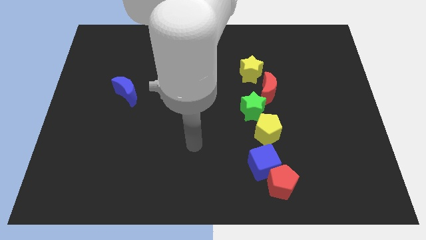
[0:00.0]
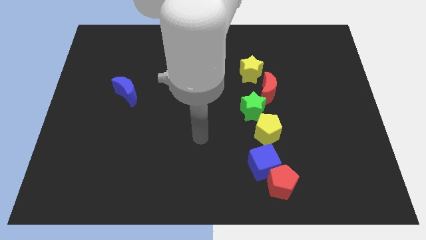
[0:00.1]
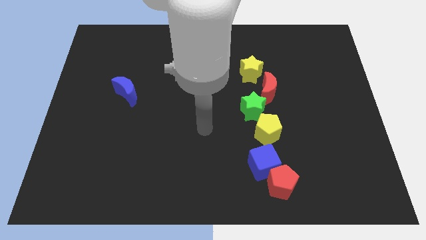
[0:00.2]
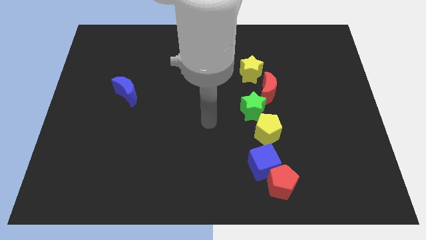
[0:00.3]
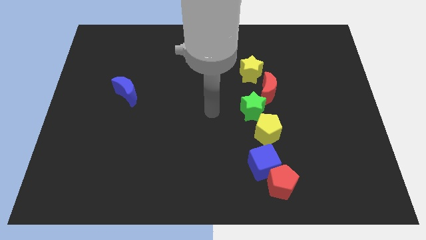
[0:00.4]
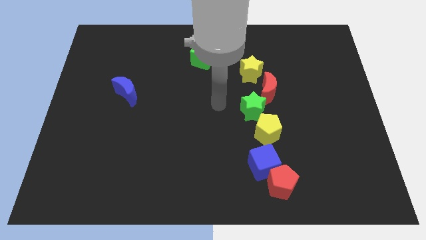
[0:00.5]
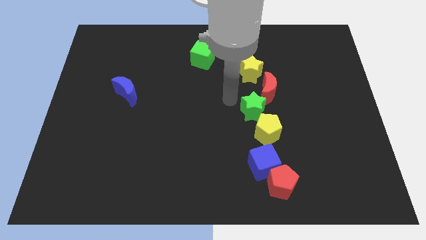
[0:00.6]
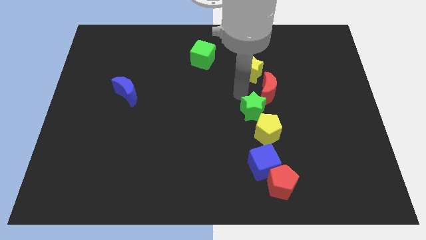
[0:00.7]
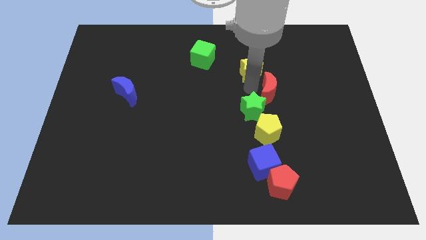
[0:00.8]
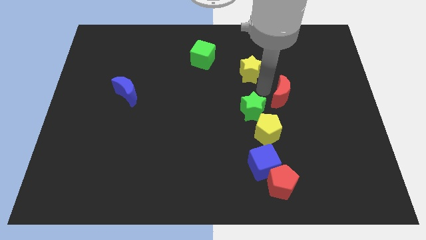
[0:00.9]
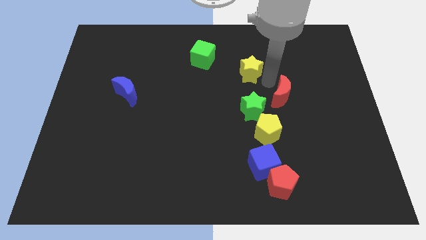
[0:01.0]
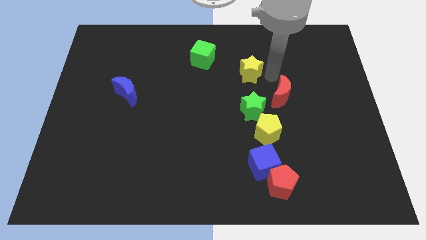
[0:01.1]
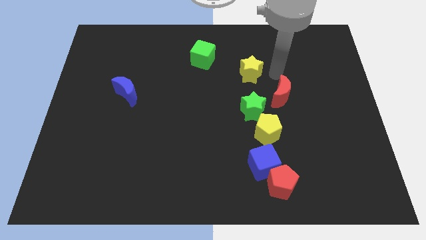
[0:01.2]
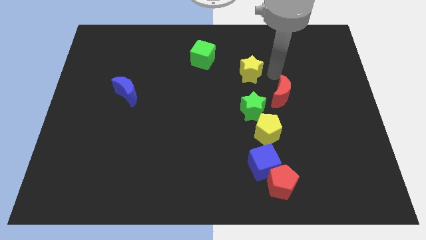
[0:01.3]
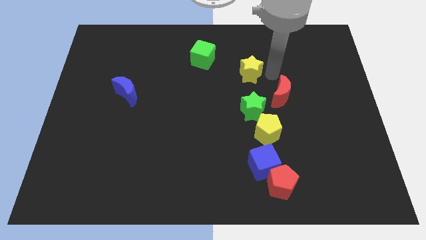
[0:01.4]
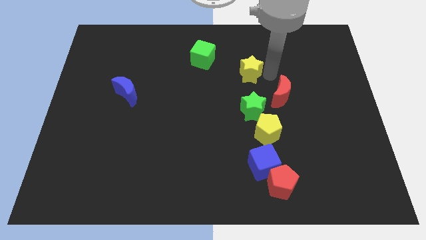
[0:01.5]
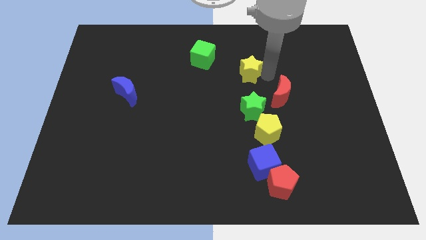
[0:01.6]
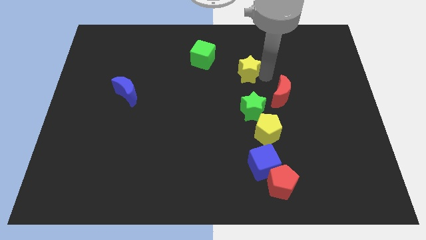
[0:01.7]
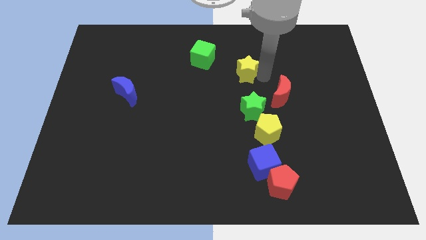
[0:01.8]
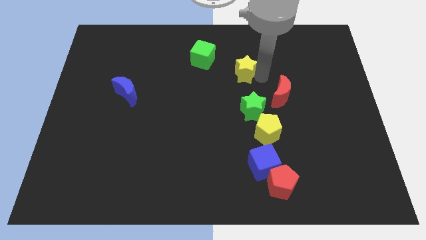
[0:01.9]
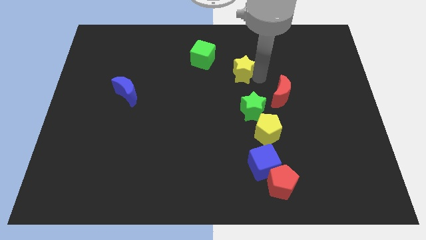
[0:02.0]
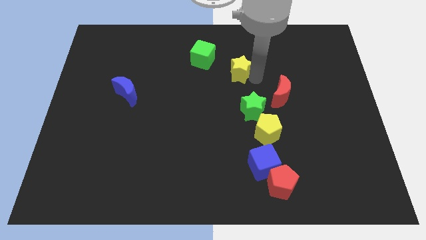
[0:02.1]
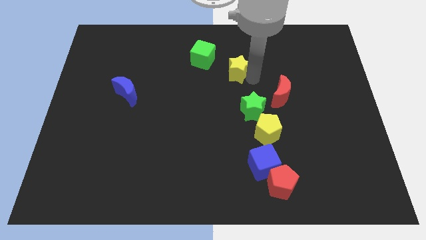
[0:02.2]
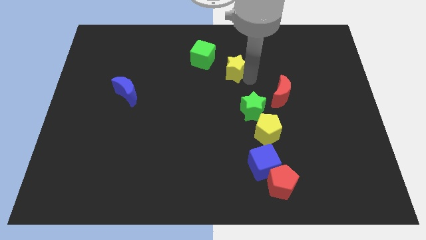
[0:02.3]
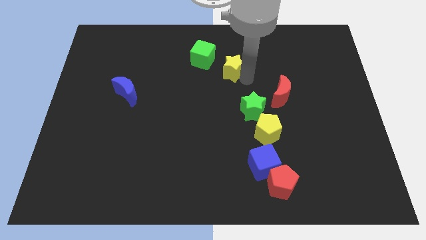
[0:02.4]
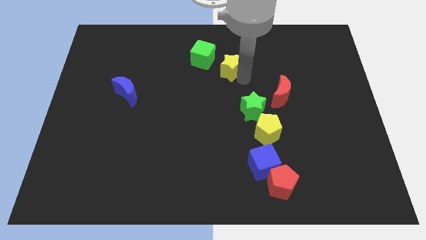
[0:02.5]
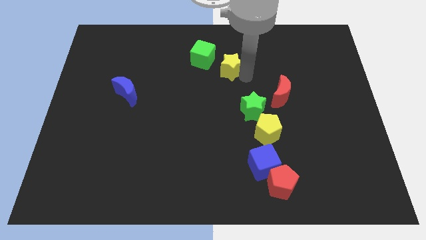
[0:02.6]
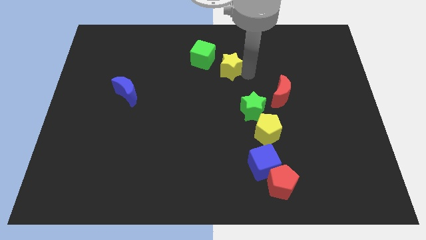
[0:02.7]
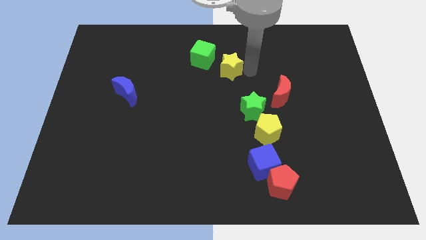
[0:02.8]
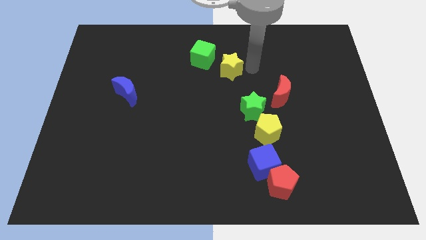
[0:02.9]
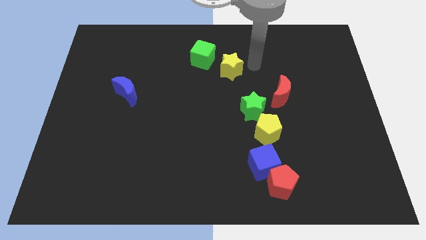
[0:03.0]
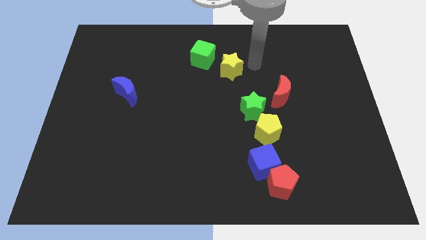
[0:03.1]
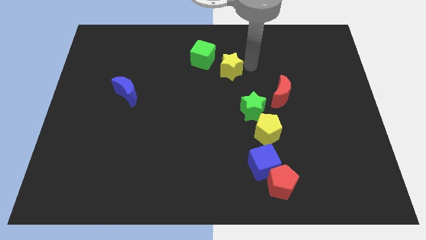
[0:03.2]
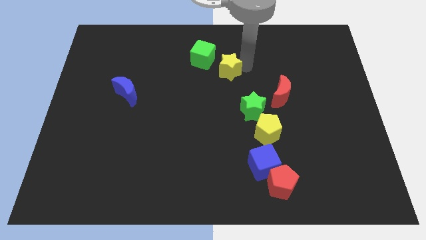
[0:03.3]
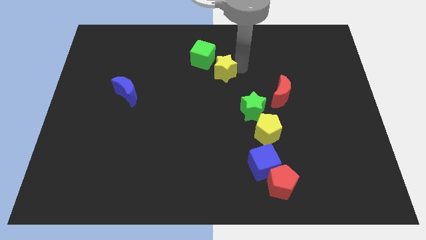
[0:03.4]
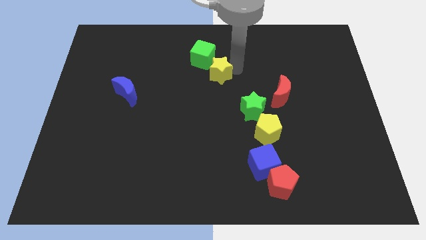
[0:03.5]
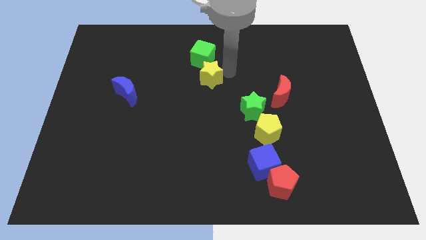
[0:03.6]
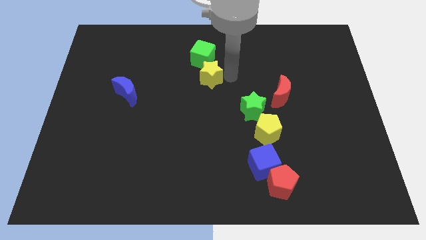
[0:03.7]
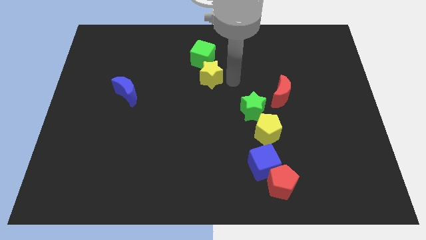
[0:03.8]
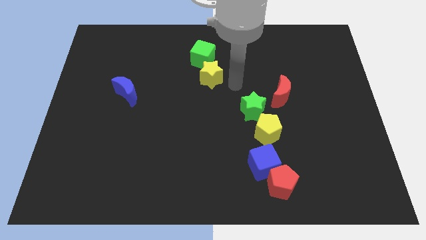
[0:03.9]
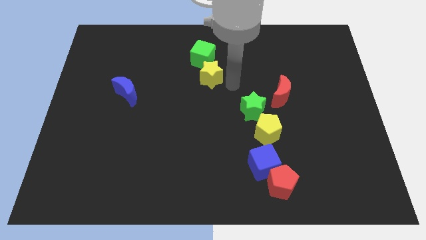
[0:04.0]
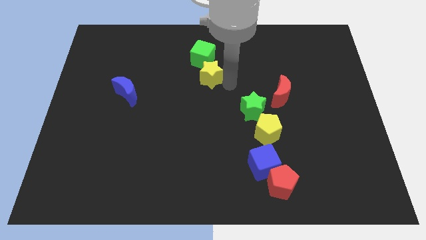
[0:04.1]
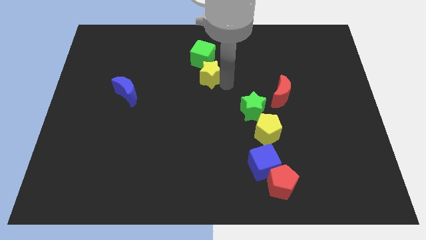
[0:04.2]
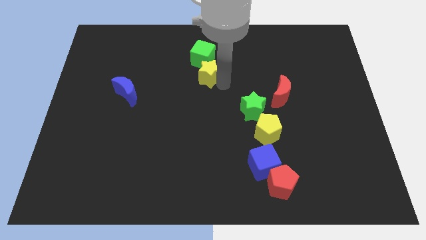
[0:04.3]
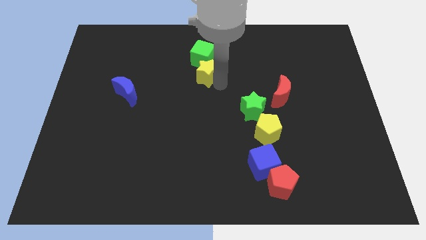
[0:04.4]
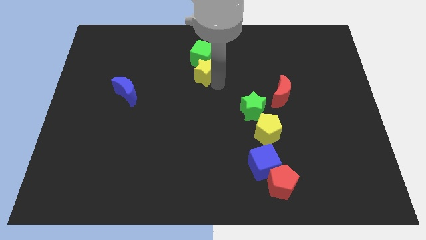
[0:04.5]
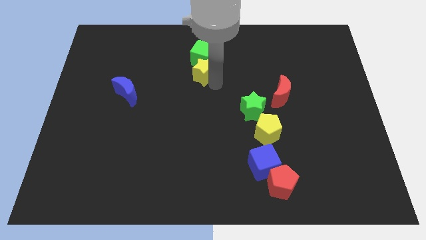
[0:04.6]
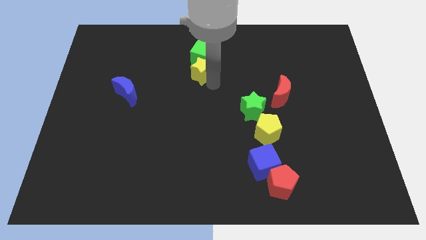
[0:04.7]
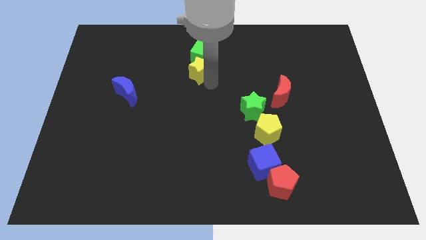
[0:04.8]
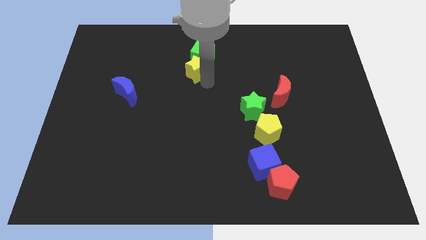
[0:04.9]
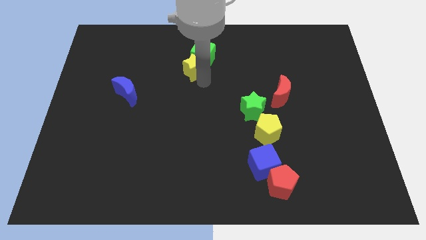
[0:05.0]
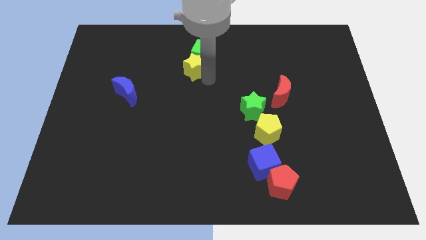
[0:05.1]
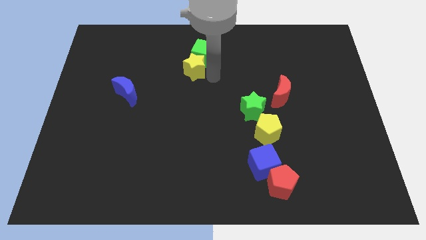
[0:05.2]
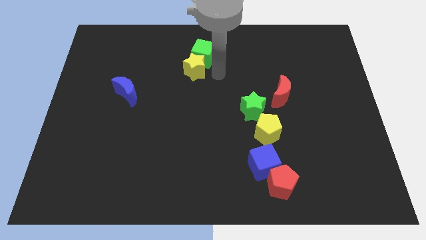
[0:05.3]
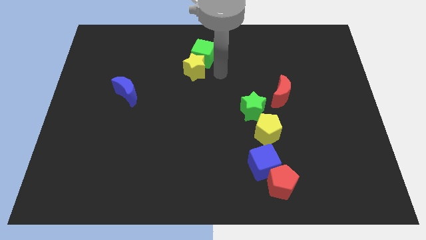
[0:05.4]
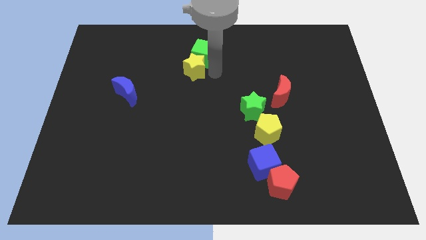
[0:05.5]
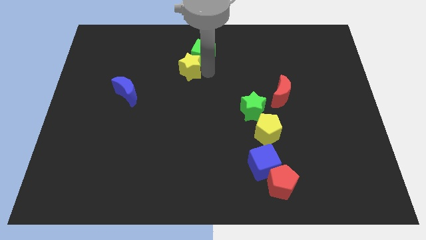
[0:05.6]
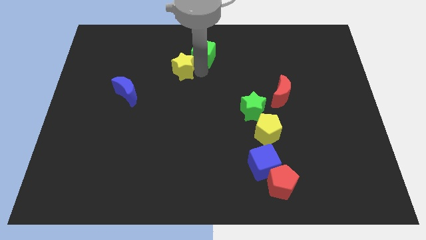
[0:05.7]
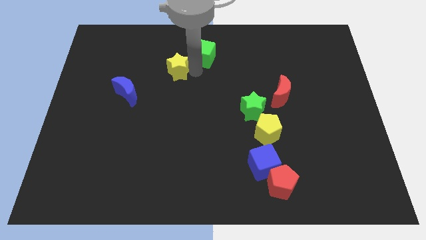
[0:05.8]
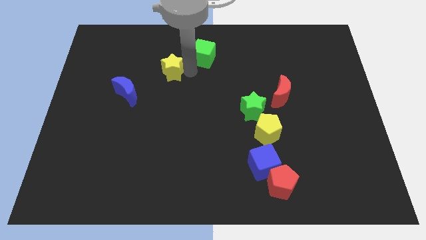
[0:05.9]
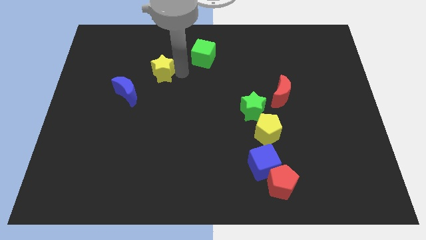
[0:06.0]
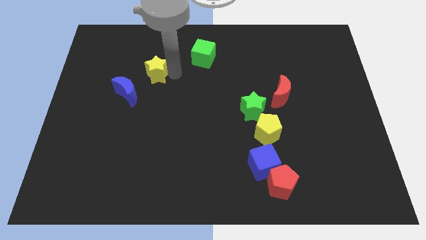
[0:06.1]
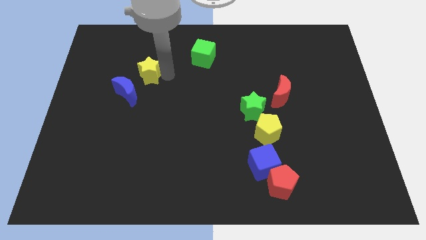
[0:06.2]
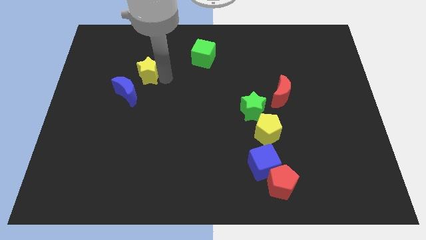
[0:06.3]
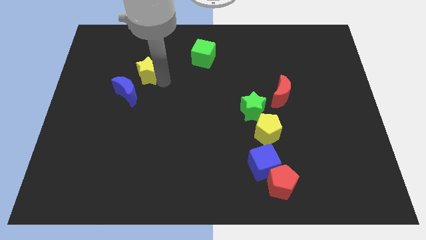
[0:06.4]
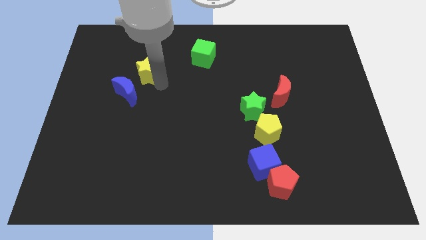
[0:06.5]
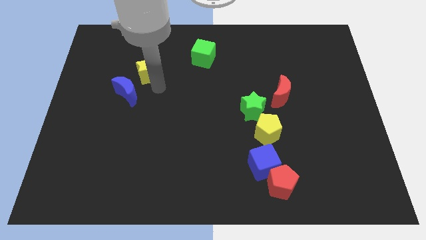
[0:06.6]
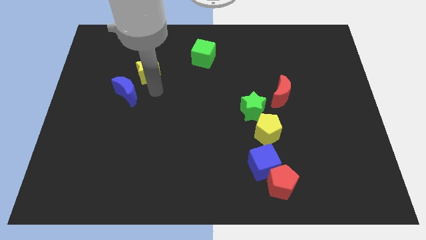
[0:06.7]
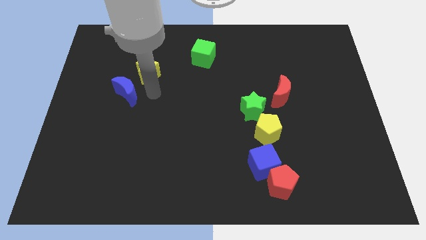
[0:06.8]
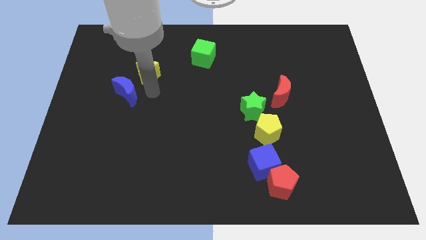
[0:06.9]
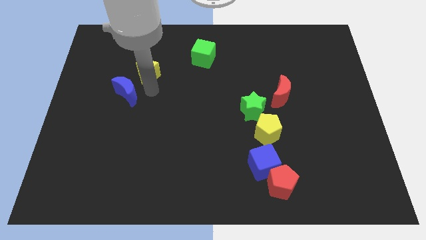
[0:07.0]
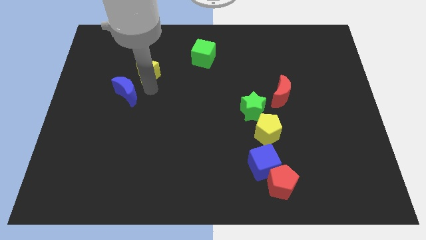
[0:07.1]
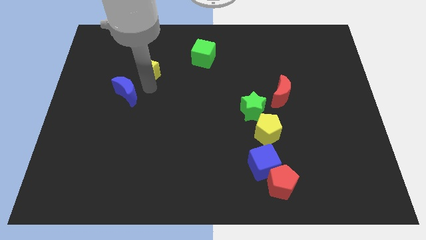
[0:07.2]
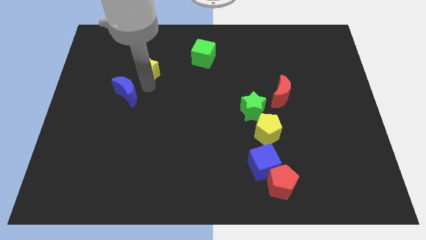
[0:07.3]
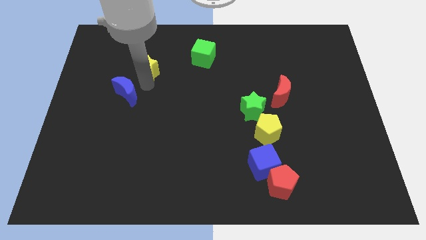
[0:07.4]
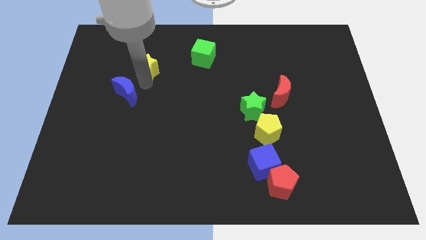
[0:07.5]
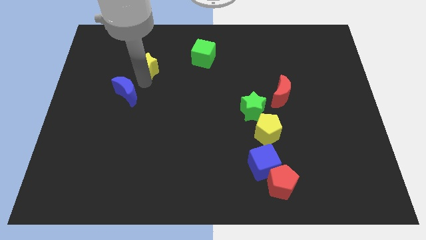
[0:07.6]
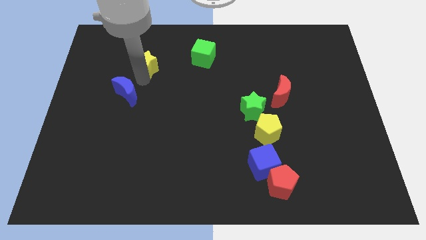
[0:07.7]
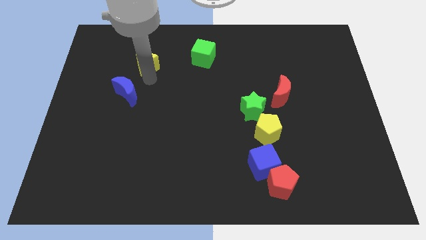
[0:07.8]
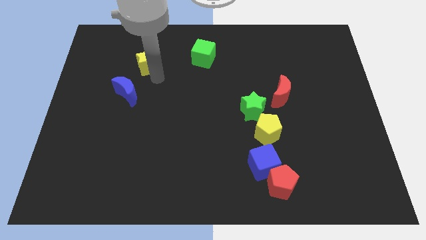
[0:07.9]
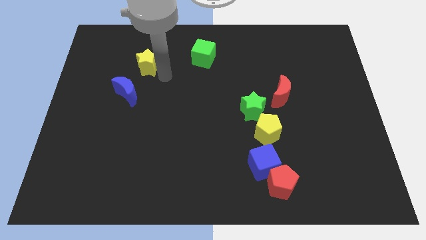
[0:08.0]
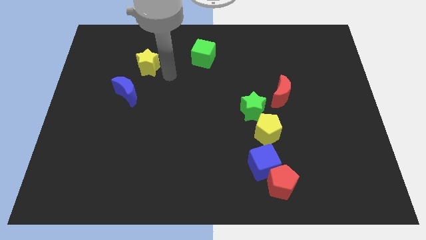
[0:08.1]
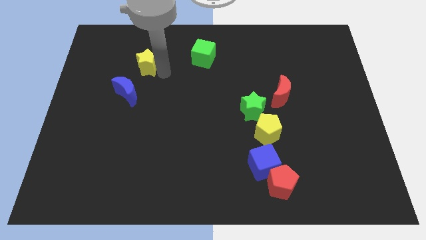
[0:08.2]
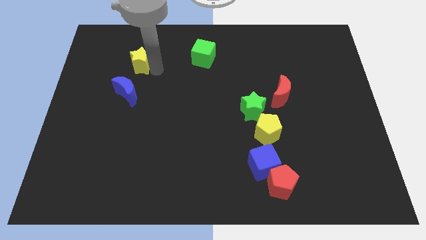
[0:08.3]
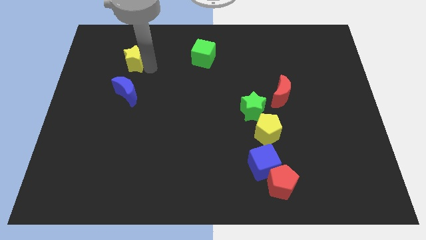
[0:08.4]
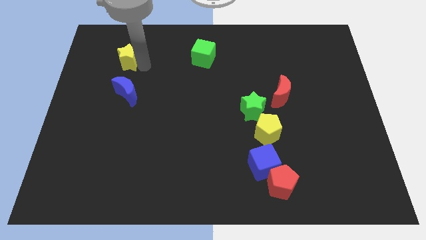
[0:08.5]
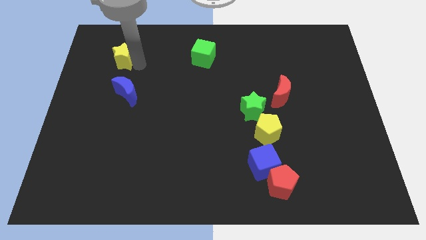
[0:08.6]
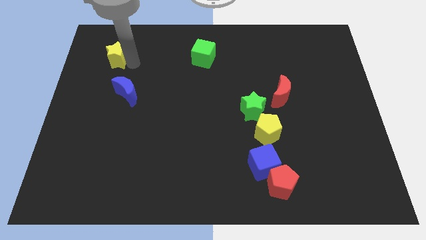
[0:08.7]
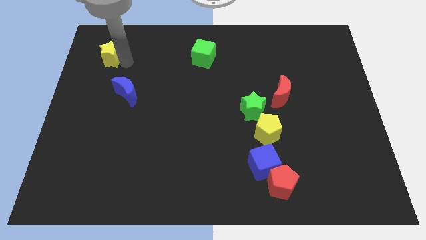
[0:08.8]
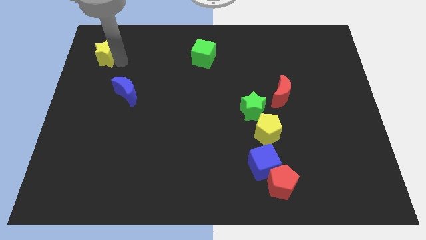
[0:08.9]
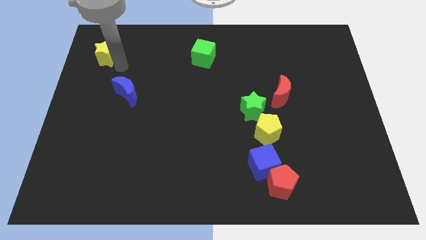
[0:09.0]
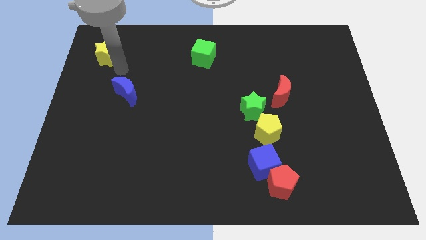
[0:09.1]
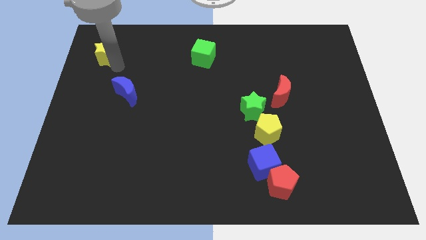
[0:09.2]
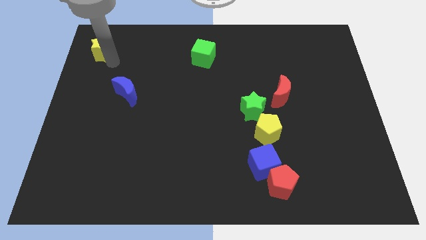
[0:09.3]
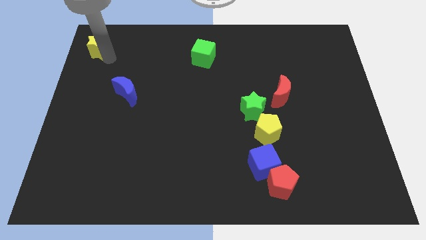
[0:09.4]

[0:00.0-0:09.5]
slide the yellow star to the upper left corner
